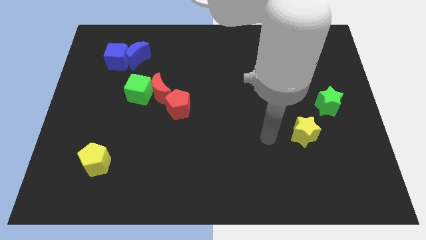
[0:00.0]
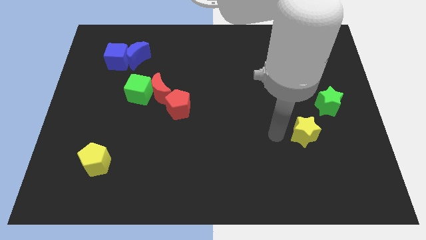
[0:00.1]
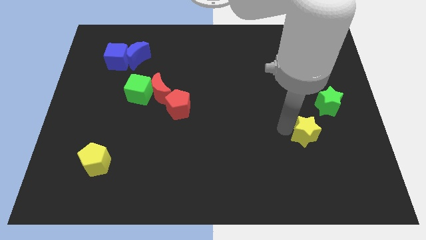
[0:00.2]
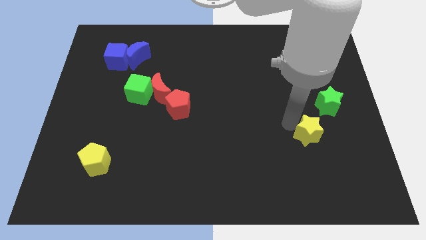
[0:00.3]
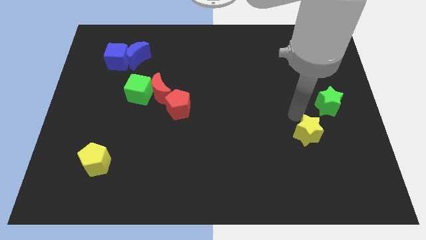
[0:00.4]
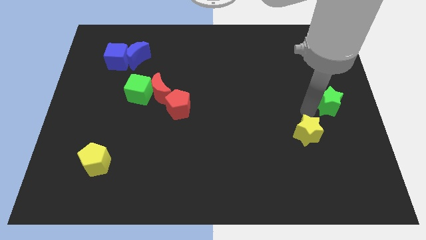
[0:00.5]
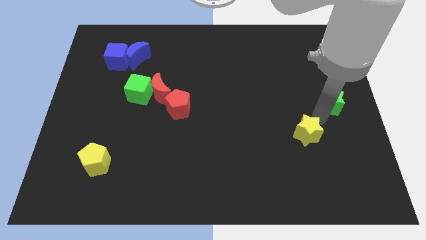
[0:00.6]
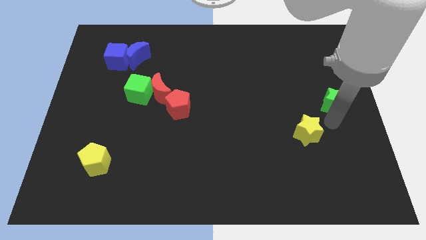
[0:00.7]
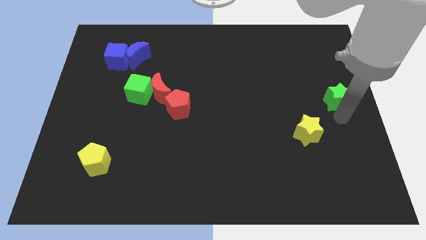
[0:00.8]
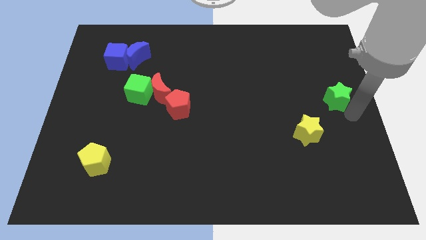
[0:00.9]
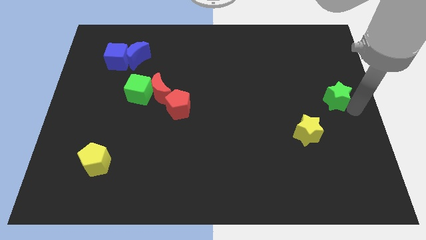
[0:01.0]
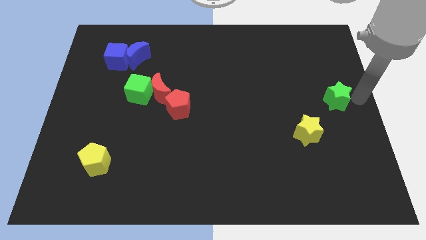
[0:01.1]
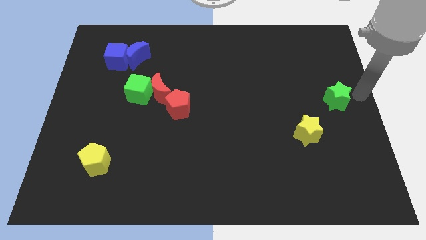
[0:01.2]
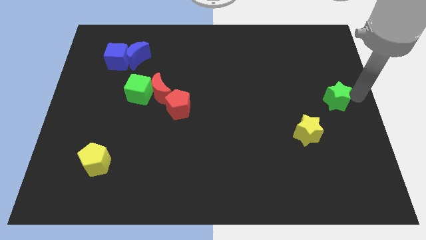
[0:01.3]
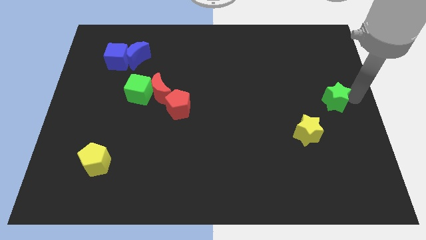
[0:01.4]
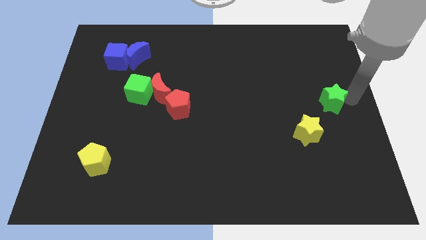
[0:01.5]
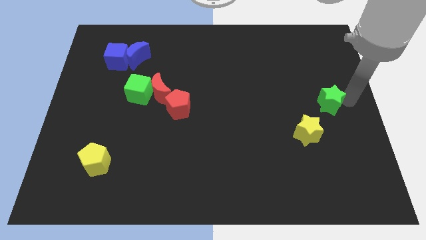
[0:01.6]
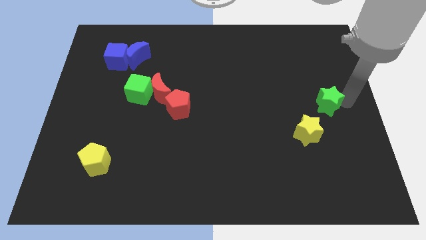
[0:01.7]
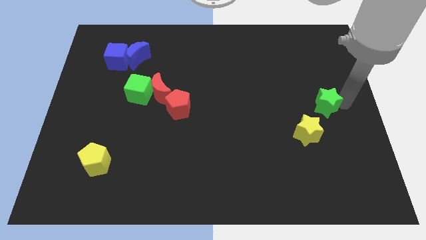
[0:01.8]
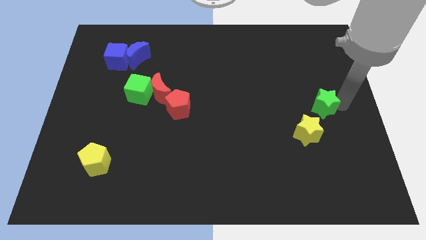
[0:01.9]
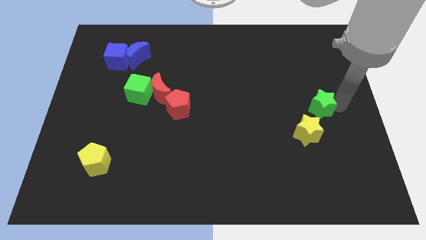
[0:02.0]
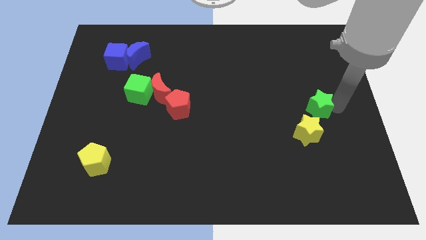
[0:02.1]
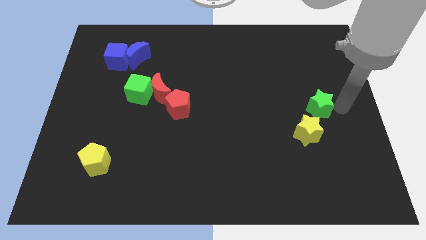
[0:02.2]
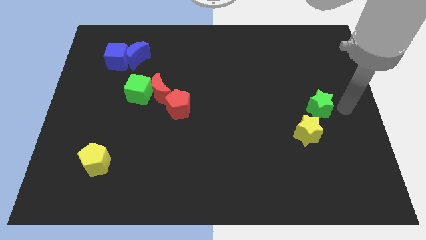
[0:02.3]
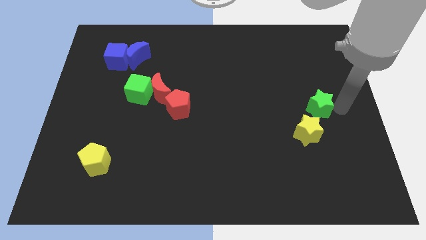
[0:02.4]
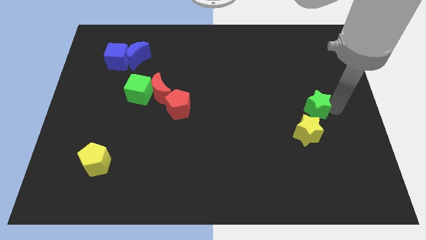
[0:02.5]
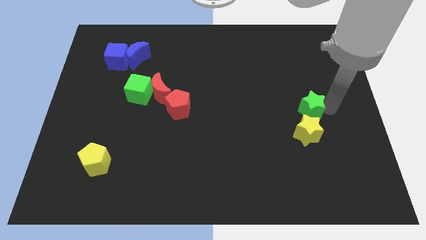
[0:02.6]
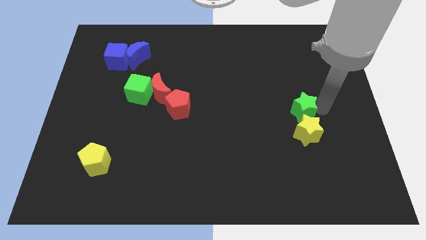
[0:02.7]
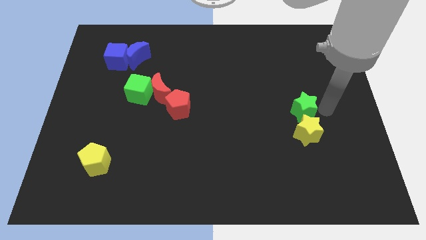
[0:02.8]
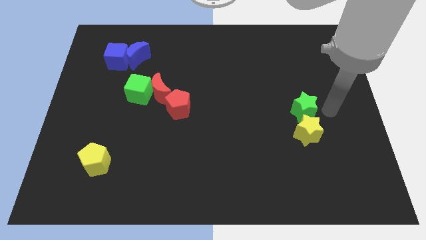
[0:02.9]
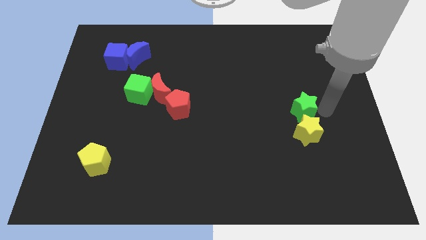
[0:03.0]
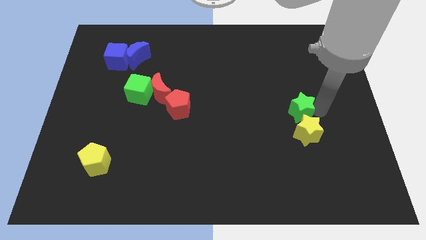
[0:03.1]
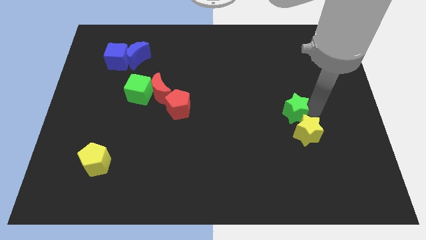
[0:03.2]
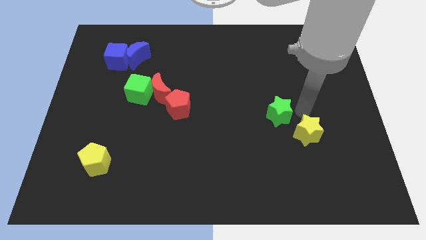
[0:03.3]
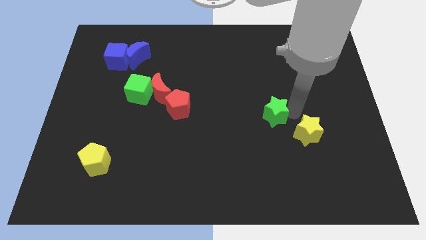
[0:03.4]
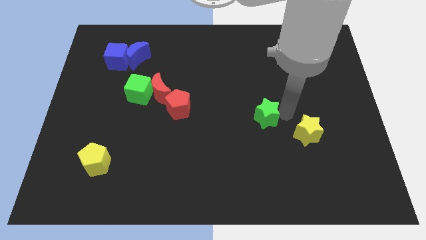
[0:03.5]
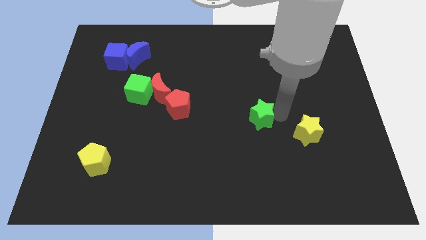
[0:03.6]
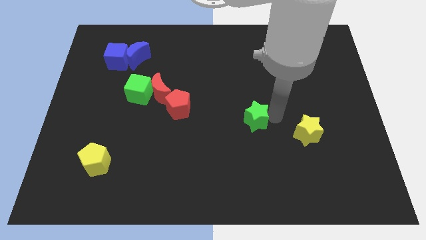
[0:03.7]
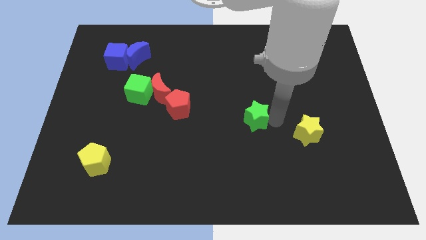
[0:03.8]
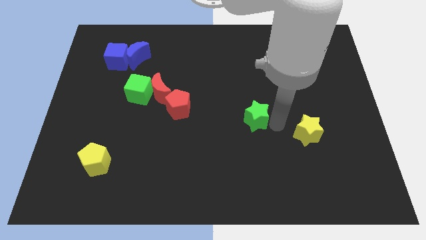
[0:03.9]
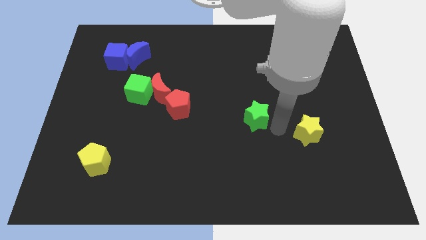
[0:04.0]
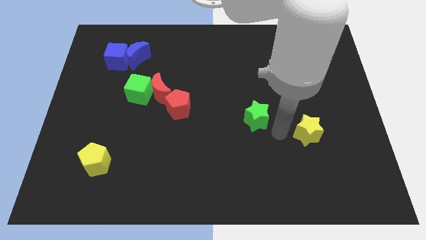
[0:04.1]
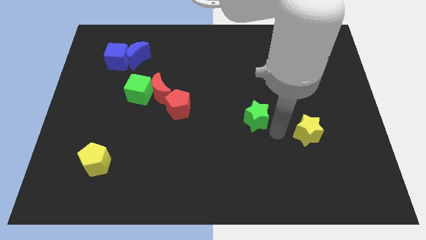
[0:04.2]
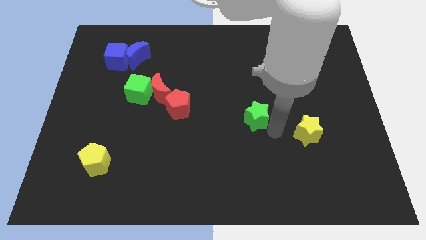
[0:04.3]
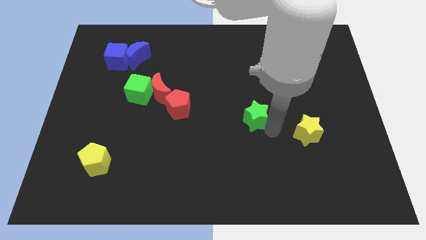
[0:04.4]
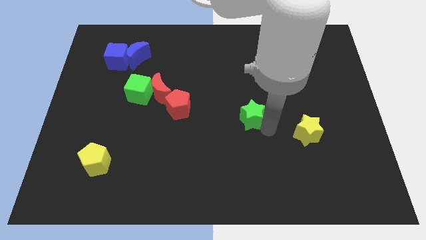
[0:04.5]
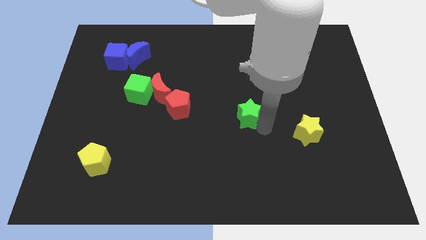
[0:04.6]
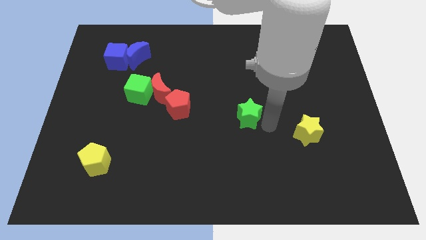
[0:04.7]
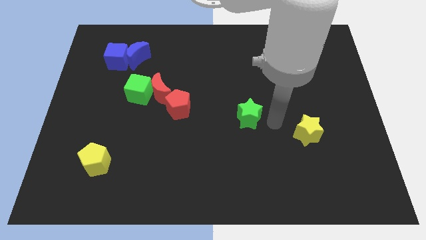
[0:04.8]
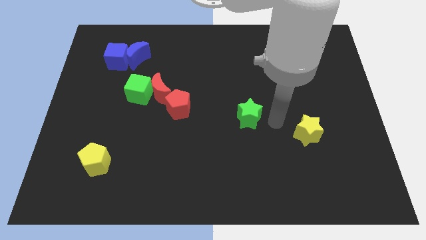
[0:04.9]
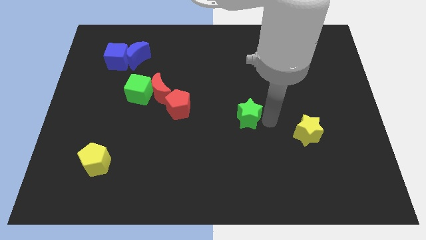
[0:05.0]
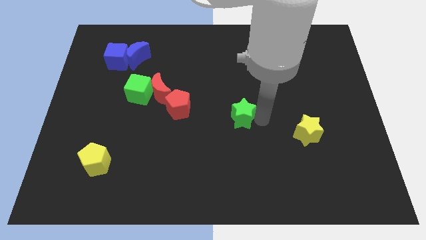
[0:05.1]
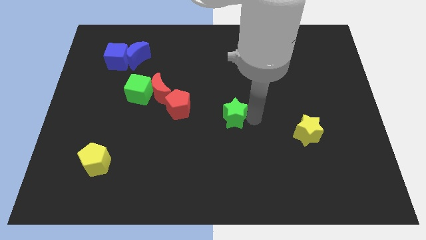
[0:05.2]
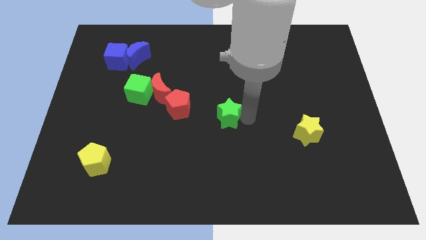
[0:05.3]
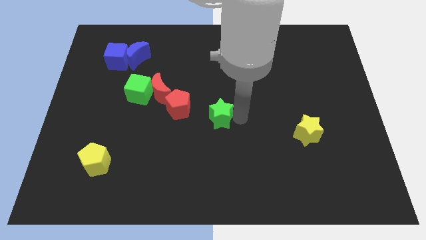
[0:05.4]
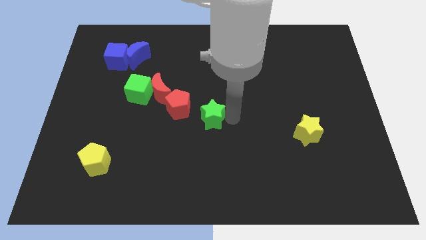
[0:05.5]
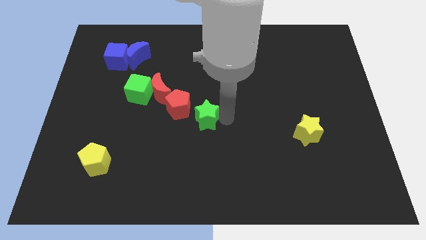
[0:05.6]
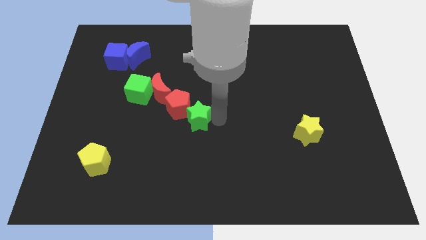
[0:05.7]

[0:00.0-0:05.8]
move the green star next to the red pentagon

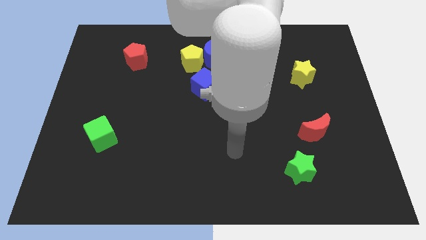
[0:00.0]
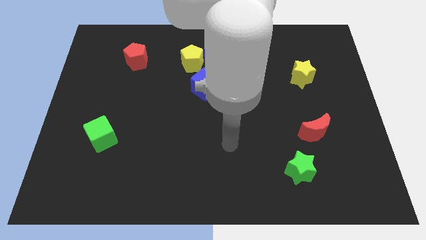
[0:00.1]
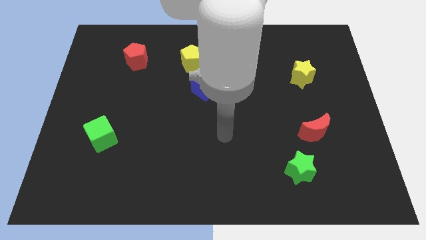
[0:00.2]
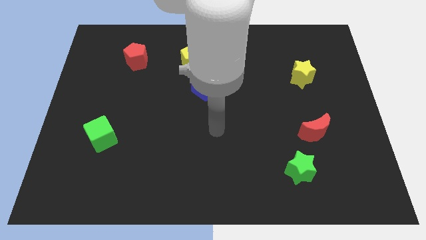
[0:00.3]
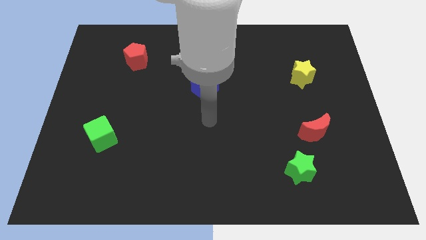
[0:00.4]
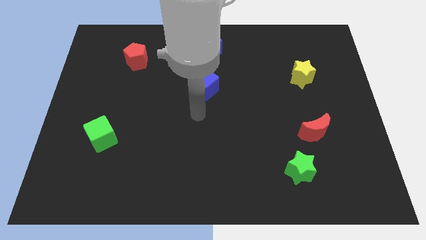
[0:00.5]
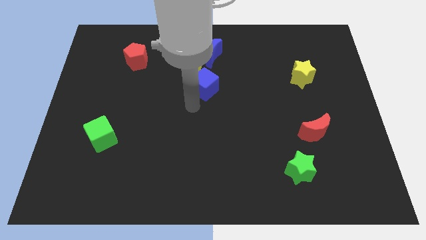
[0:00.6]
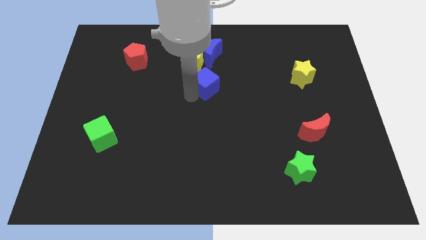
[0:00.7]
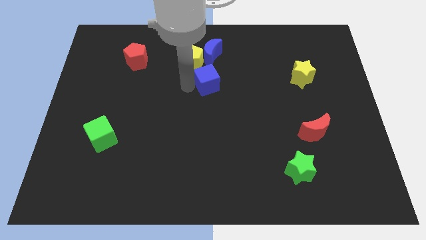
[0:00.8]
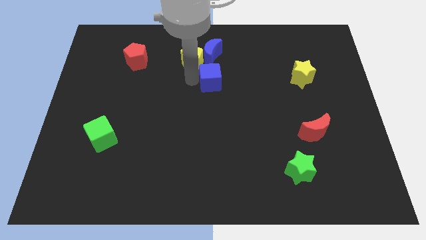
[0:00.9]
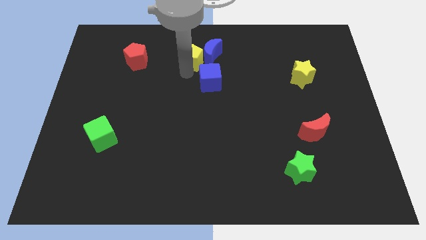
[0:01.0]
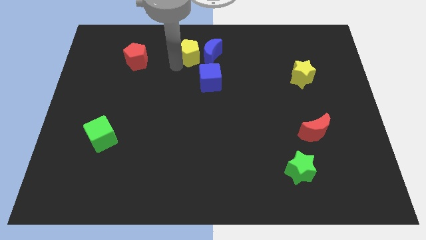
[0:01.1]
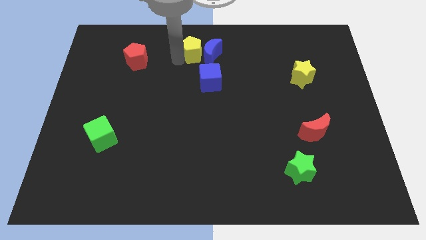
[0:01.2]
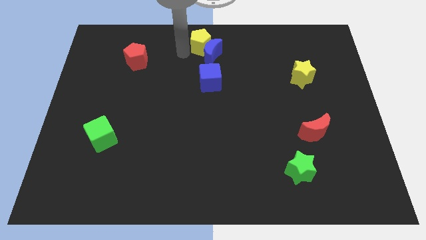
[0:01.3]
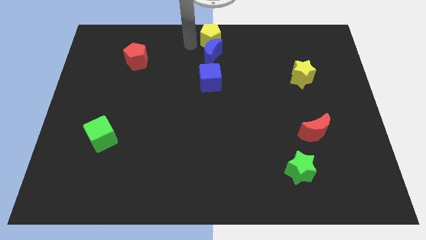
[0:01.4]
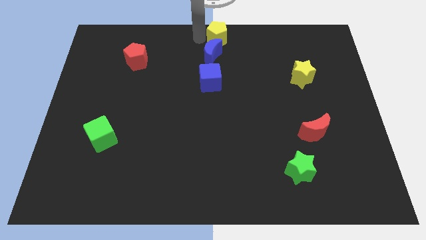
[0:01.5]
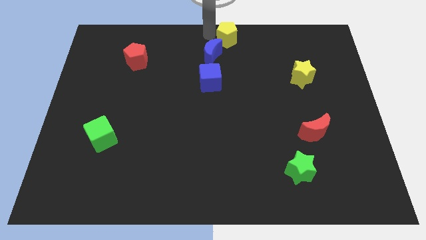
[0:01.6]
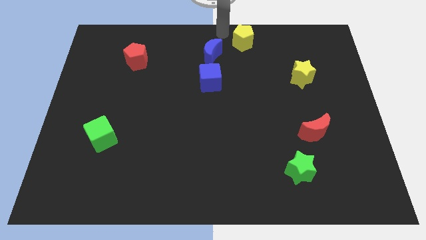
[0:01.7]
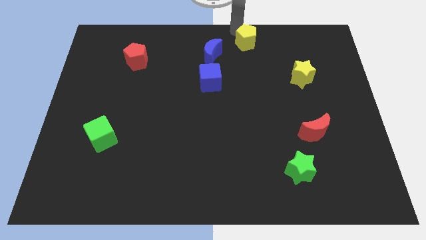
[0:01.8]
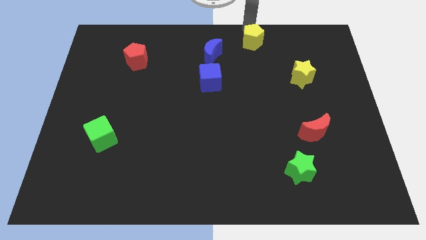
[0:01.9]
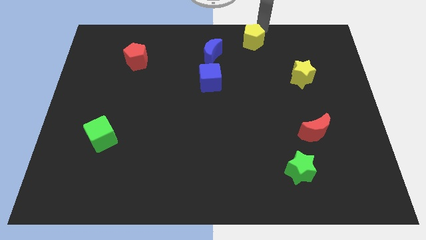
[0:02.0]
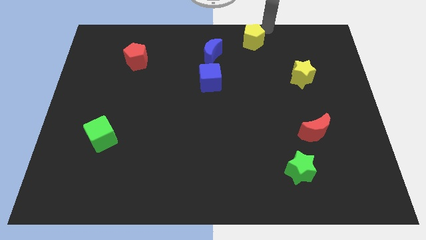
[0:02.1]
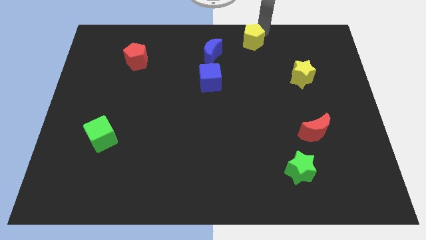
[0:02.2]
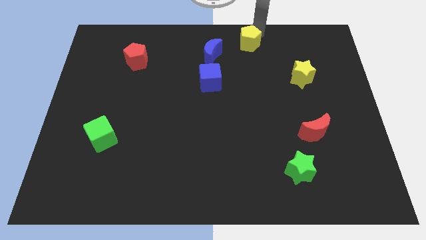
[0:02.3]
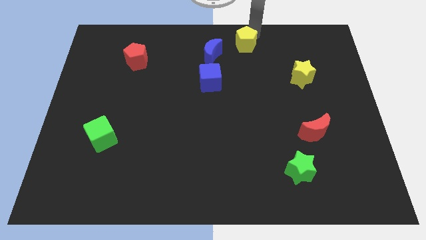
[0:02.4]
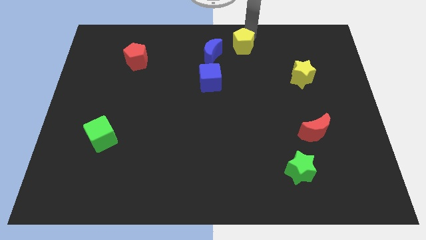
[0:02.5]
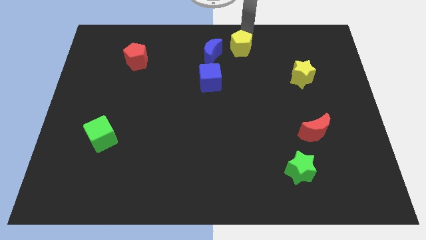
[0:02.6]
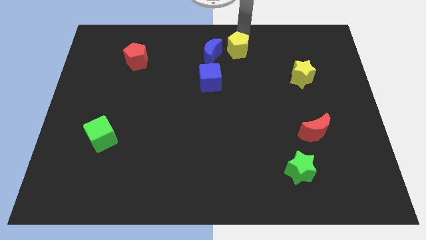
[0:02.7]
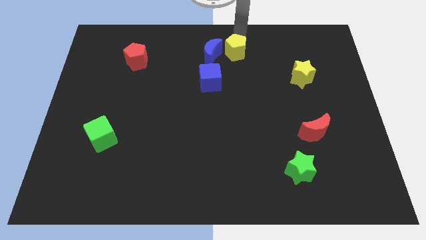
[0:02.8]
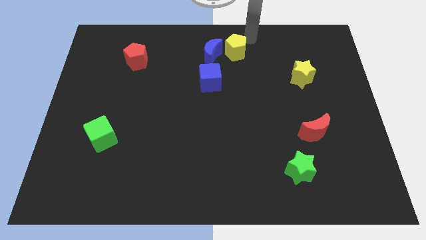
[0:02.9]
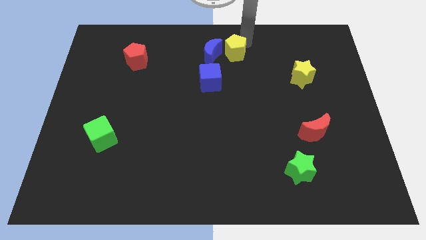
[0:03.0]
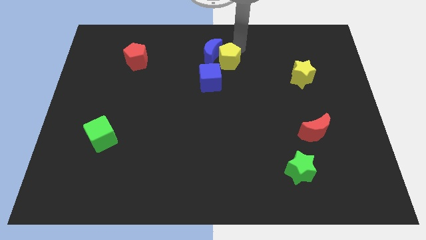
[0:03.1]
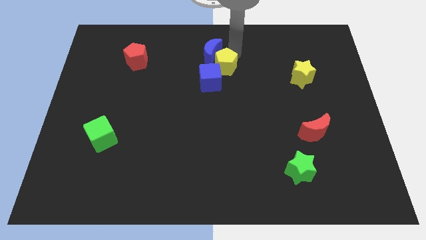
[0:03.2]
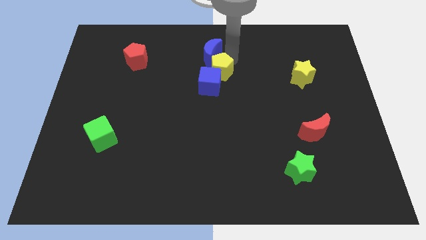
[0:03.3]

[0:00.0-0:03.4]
put the yellow pentagon to the blue cube
